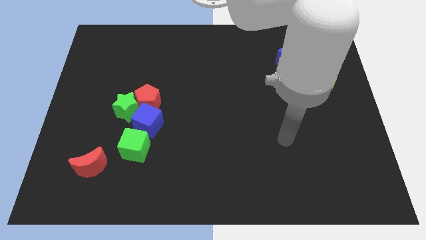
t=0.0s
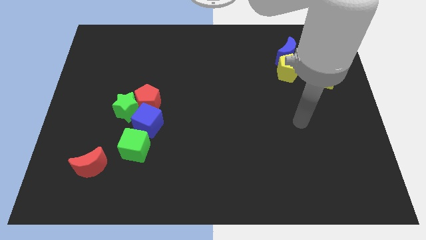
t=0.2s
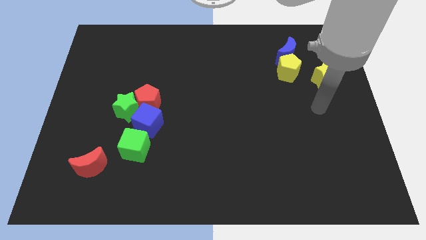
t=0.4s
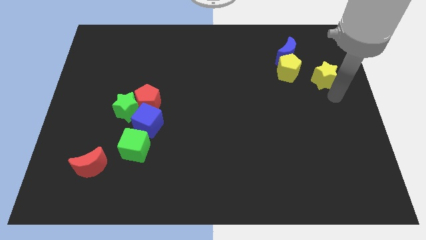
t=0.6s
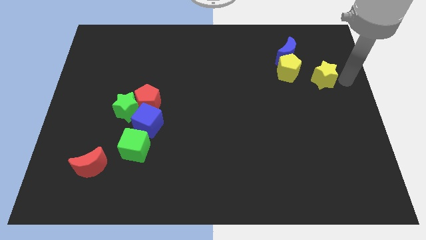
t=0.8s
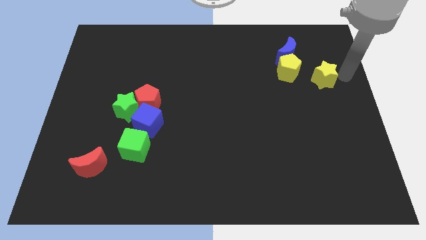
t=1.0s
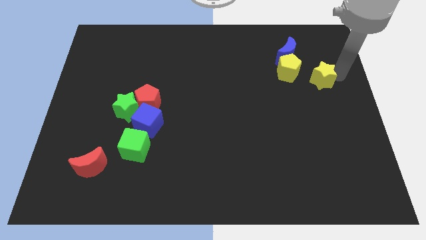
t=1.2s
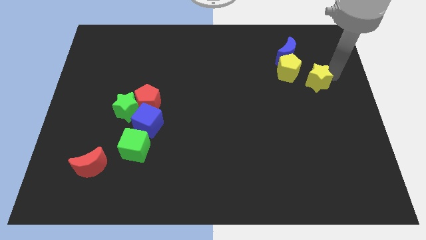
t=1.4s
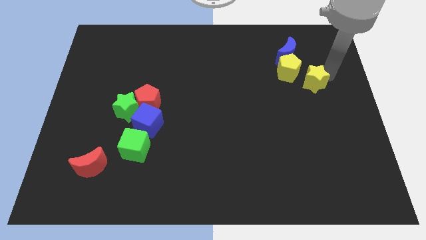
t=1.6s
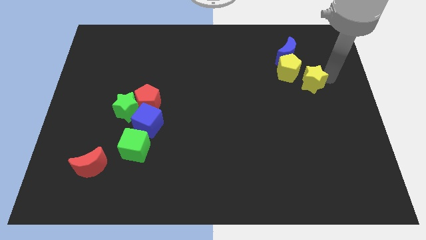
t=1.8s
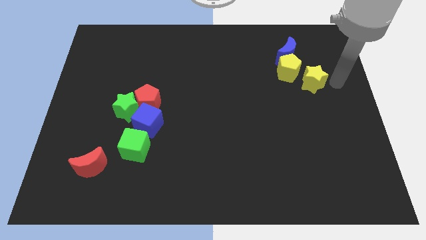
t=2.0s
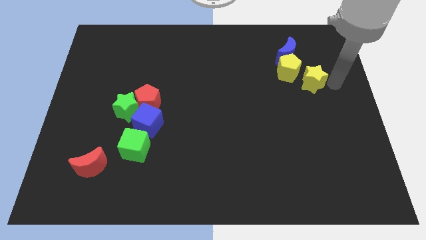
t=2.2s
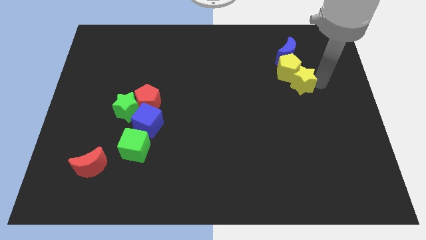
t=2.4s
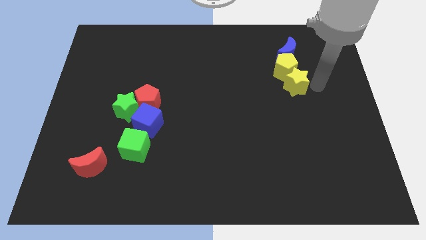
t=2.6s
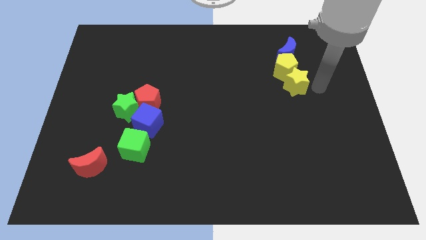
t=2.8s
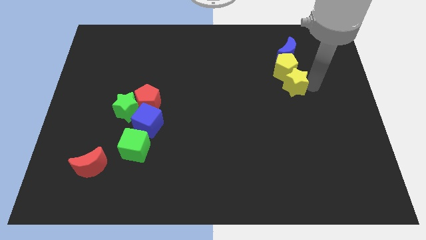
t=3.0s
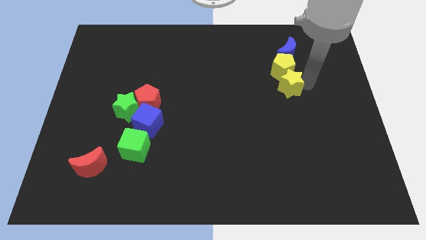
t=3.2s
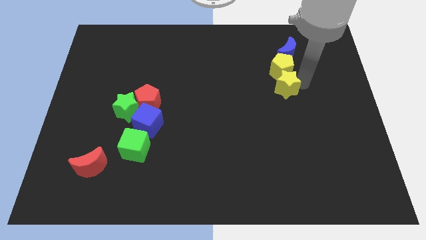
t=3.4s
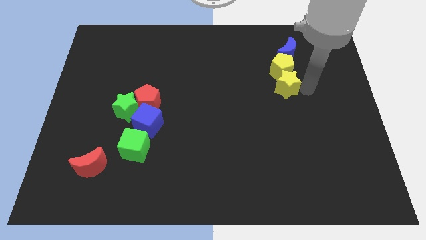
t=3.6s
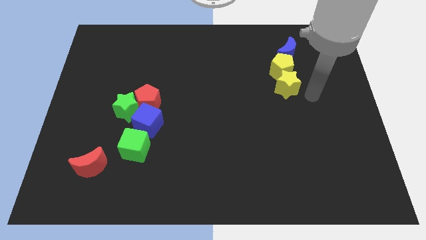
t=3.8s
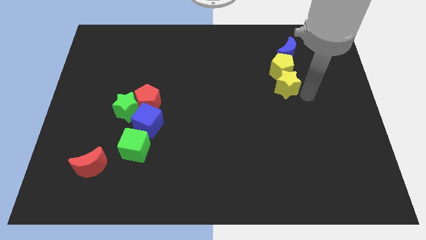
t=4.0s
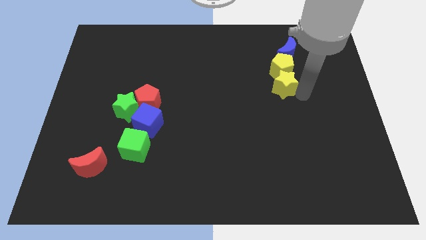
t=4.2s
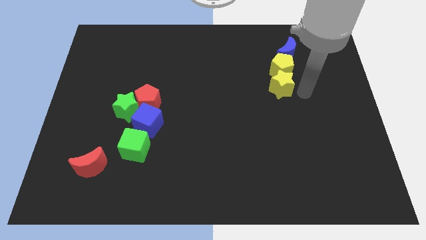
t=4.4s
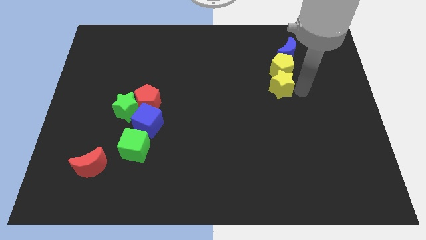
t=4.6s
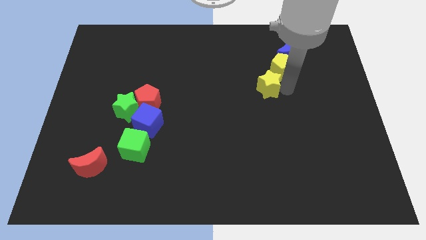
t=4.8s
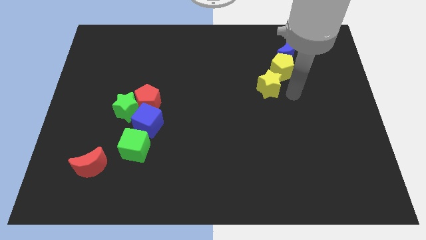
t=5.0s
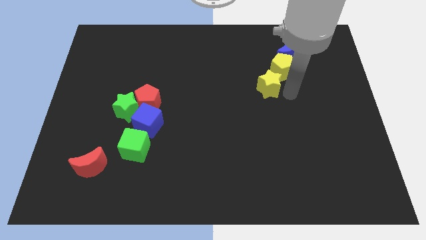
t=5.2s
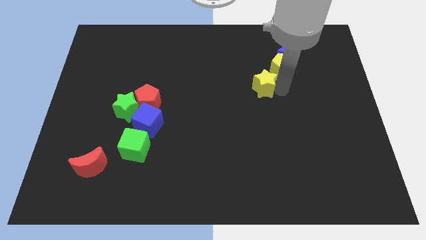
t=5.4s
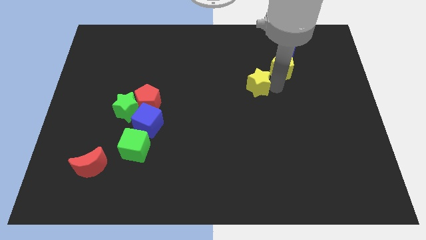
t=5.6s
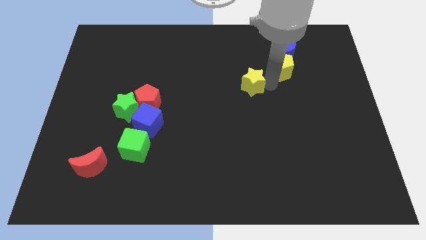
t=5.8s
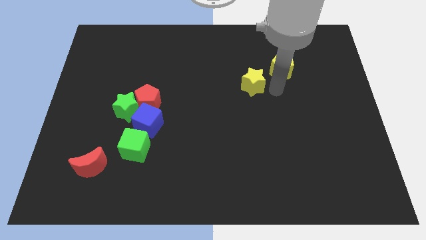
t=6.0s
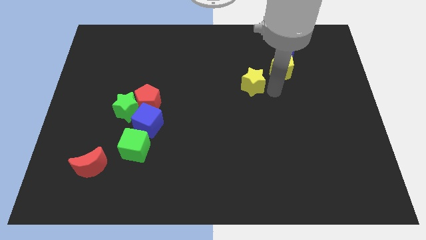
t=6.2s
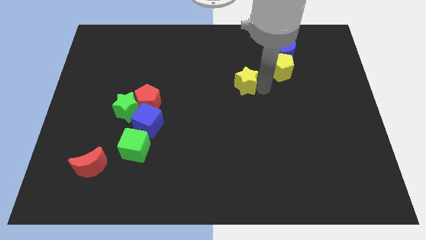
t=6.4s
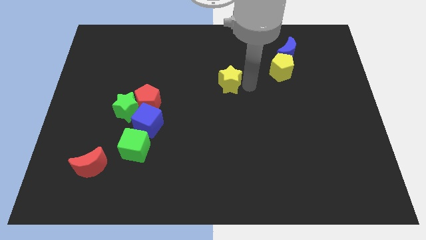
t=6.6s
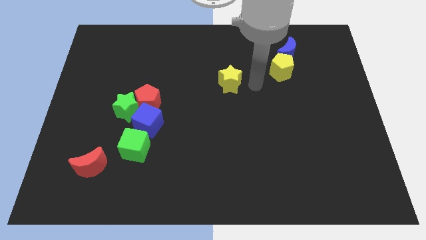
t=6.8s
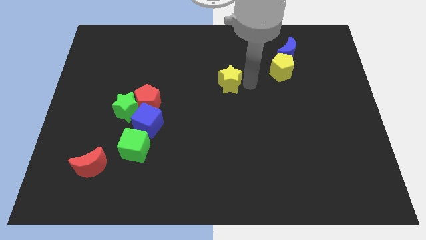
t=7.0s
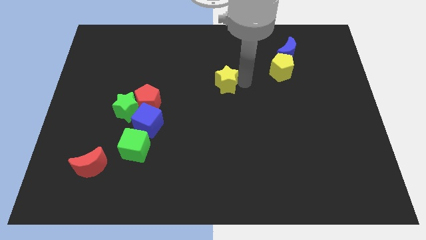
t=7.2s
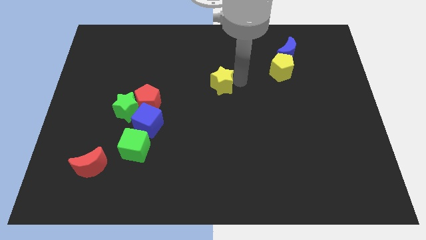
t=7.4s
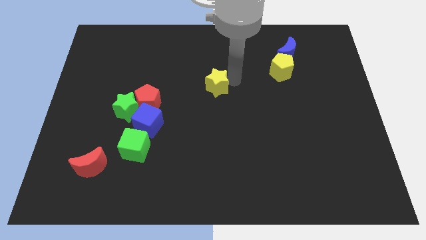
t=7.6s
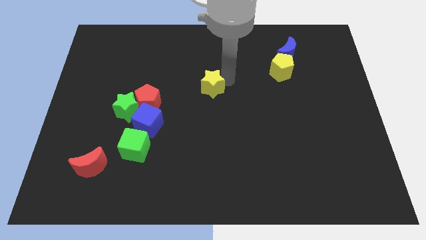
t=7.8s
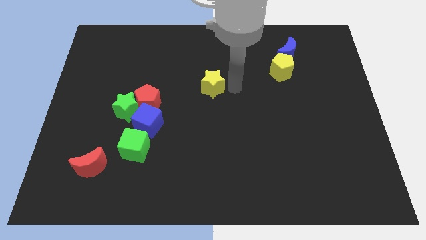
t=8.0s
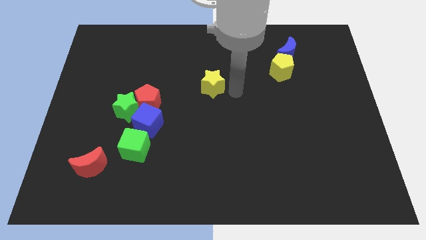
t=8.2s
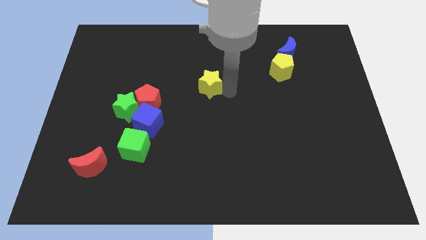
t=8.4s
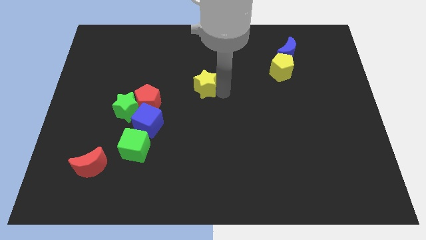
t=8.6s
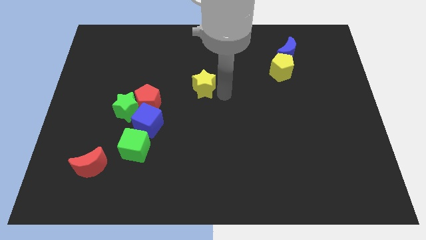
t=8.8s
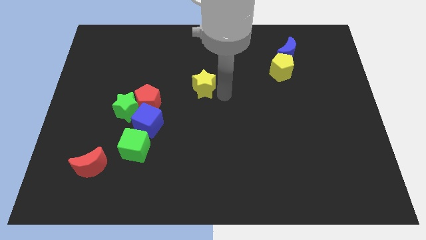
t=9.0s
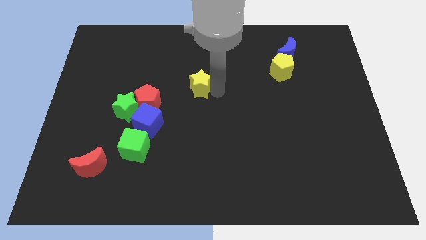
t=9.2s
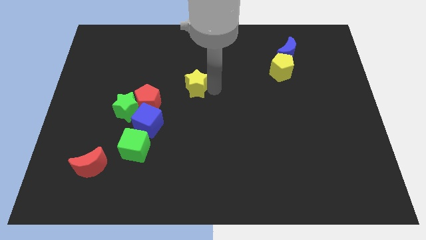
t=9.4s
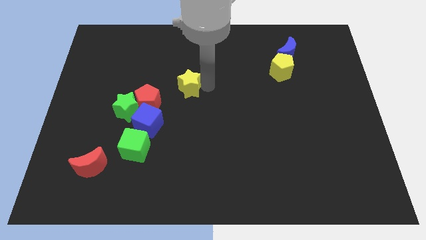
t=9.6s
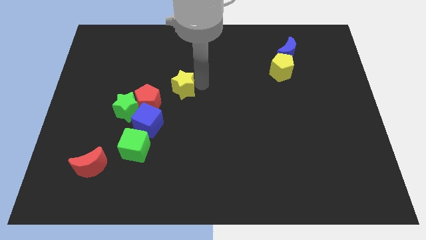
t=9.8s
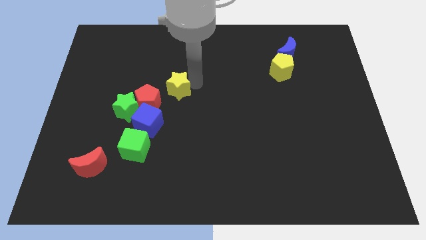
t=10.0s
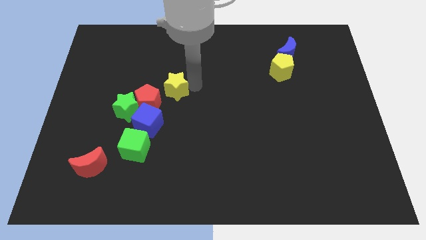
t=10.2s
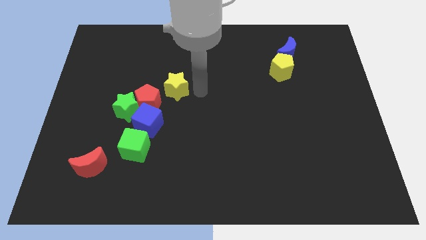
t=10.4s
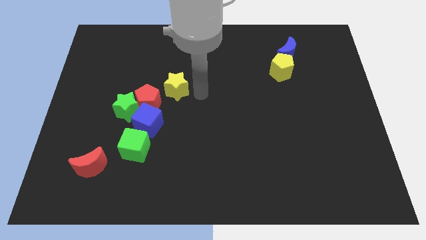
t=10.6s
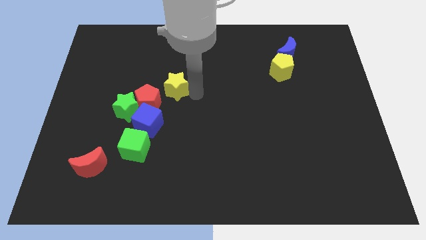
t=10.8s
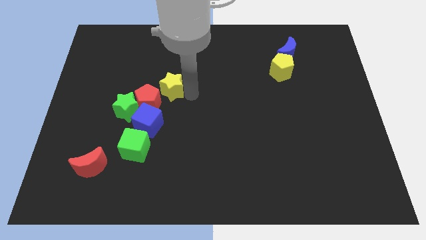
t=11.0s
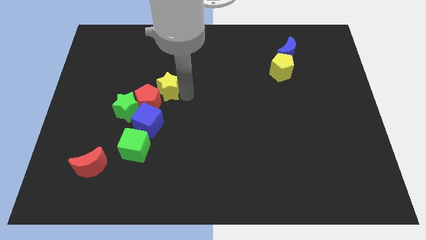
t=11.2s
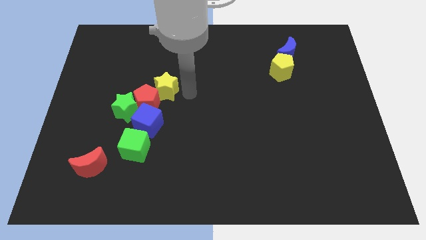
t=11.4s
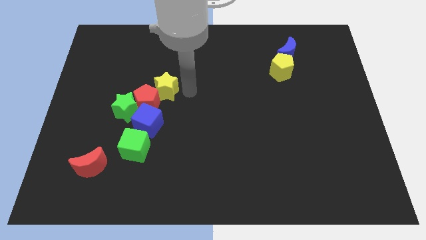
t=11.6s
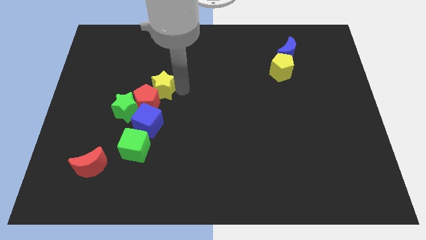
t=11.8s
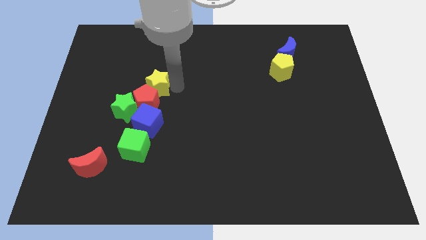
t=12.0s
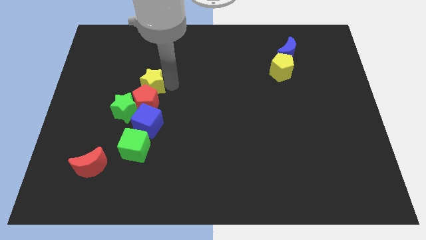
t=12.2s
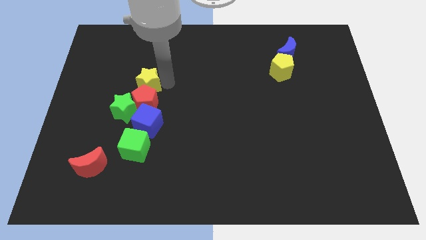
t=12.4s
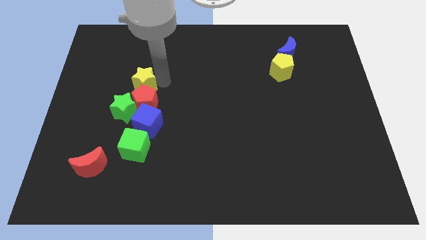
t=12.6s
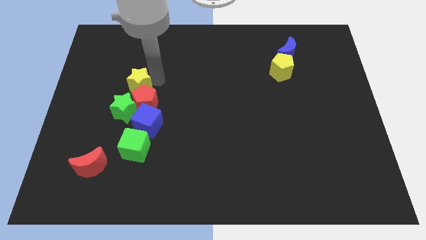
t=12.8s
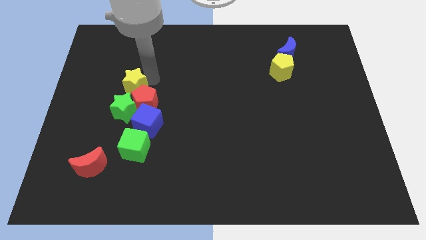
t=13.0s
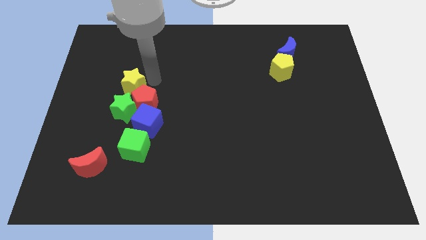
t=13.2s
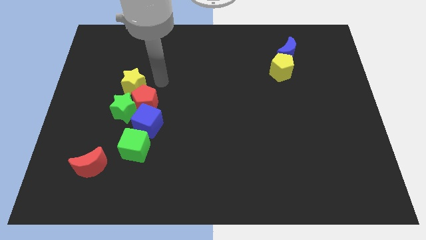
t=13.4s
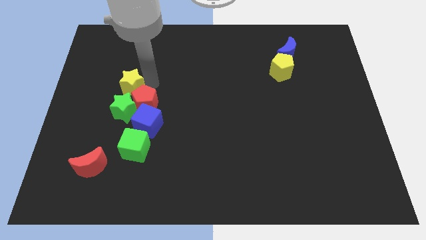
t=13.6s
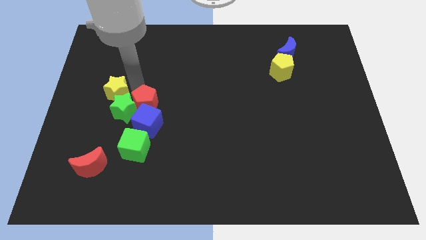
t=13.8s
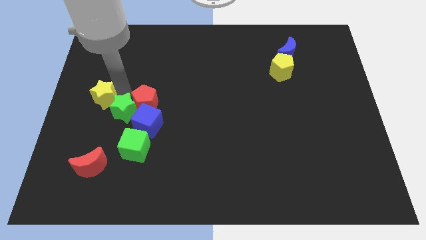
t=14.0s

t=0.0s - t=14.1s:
slide the yellow star to the left side of the board
